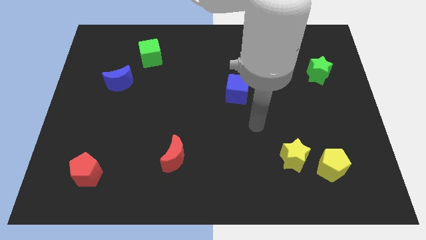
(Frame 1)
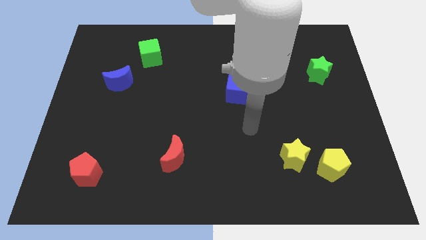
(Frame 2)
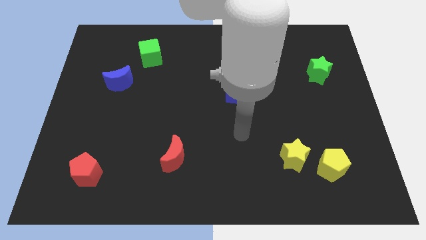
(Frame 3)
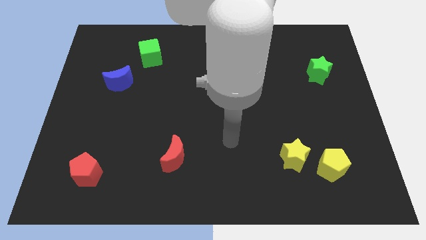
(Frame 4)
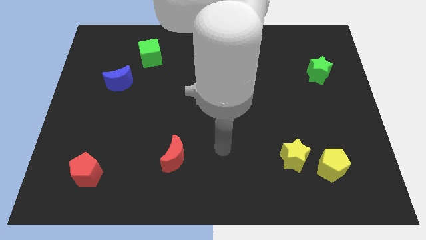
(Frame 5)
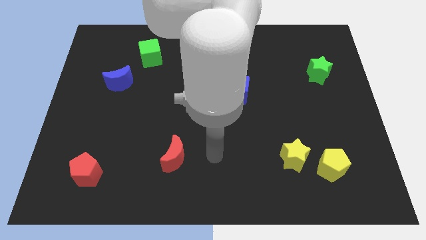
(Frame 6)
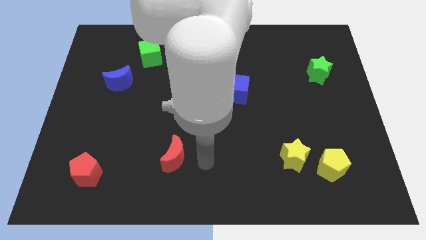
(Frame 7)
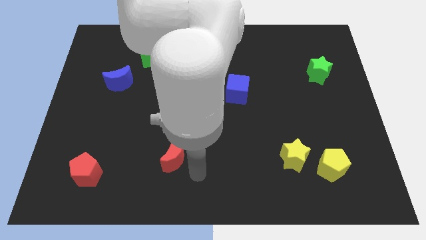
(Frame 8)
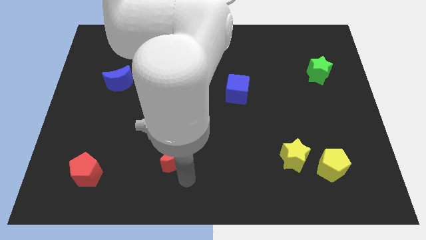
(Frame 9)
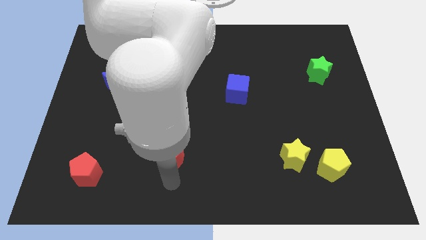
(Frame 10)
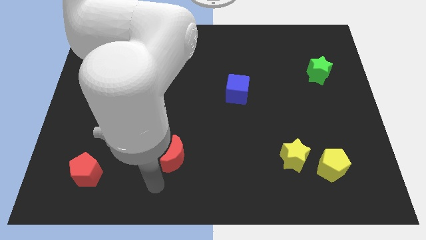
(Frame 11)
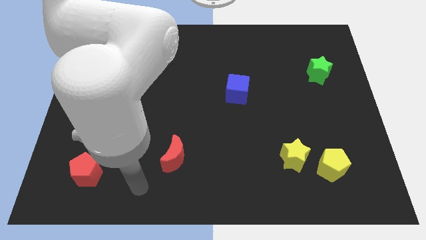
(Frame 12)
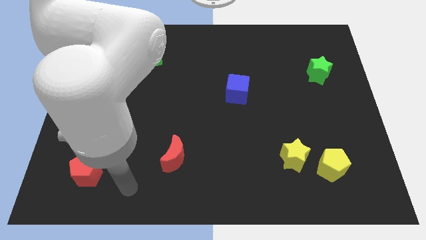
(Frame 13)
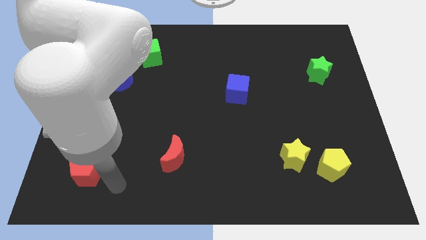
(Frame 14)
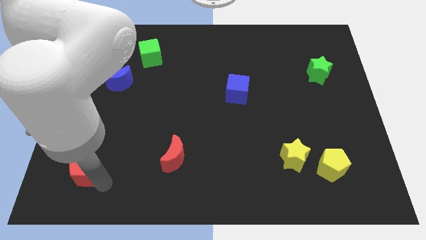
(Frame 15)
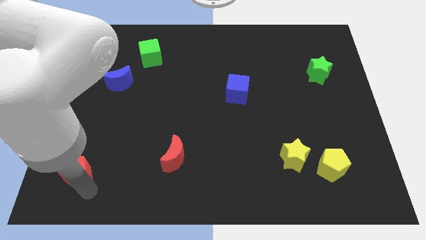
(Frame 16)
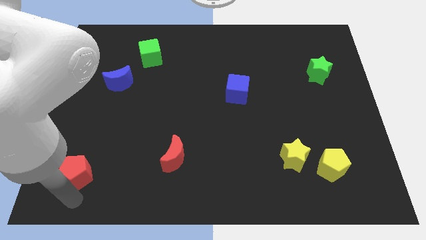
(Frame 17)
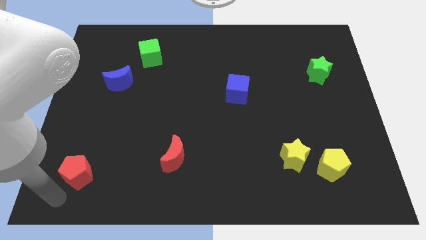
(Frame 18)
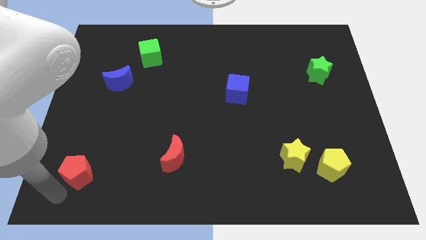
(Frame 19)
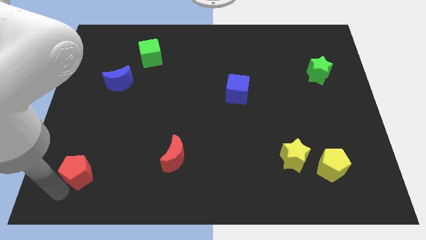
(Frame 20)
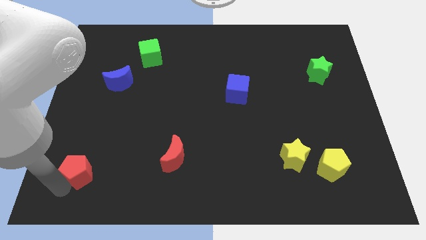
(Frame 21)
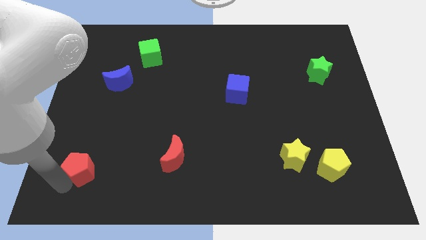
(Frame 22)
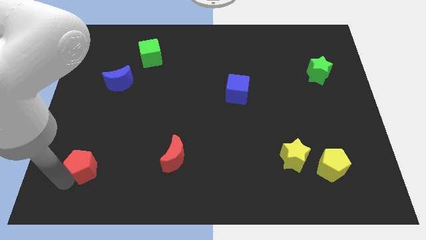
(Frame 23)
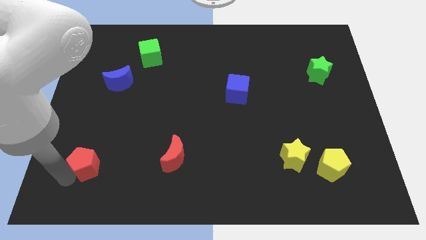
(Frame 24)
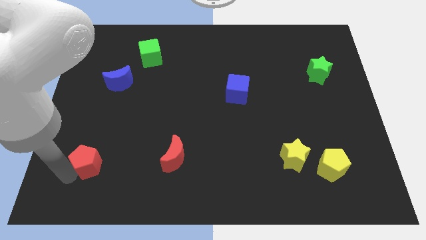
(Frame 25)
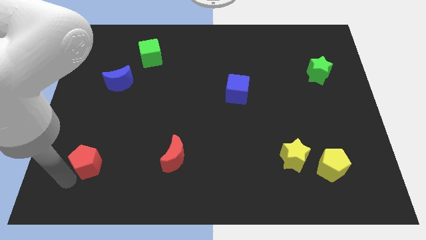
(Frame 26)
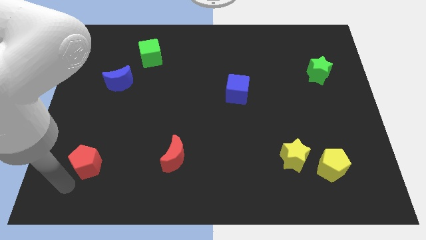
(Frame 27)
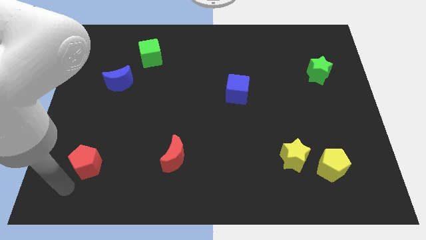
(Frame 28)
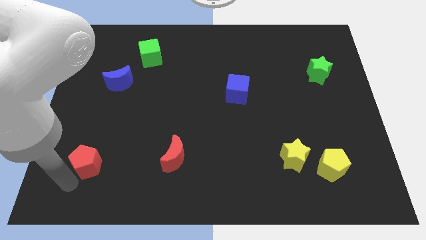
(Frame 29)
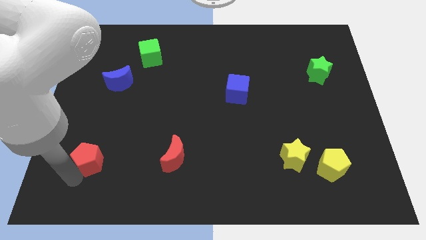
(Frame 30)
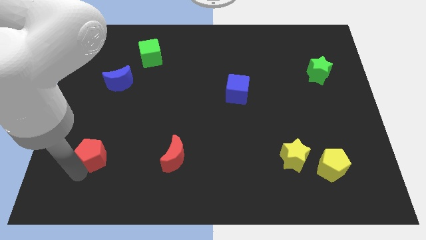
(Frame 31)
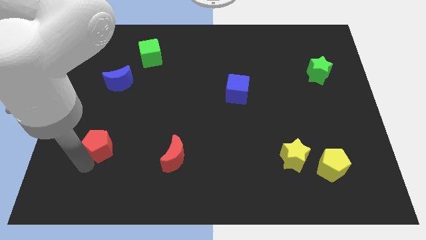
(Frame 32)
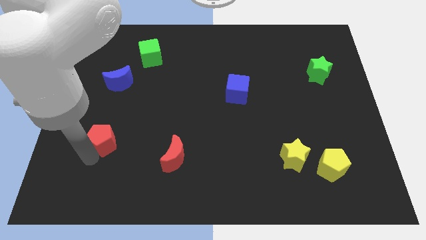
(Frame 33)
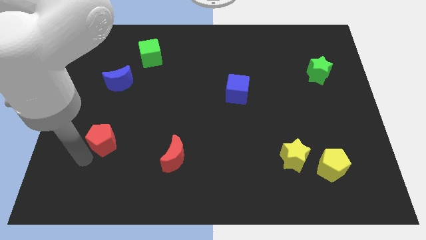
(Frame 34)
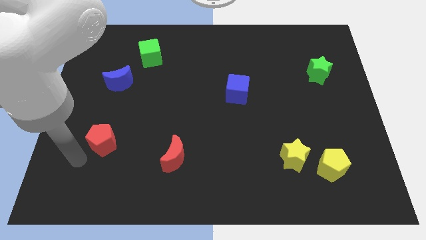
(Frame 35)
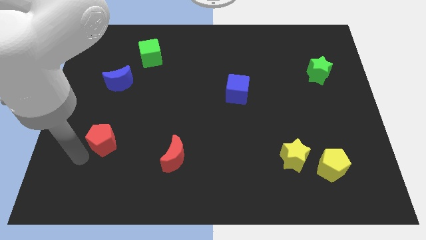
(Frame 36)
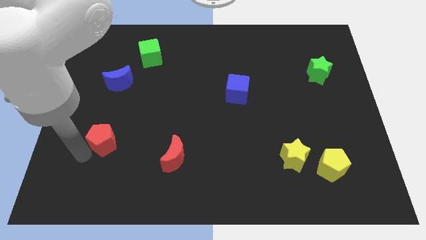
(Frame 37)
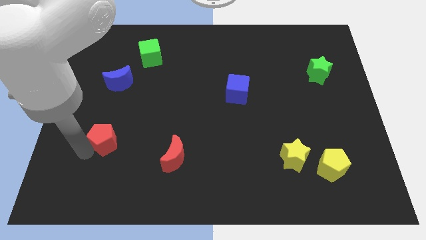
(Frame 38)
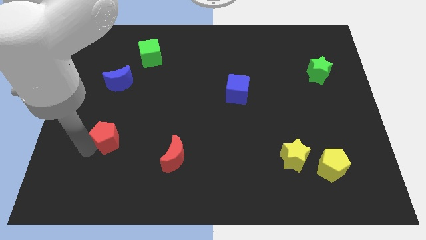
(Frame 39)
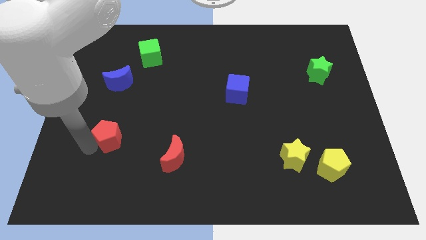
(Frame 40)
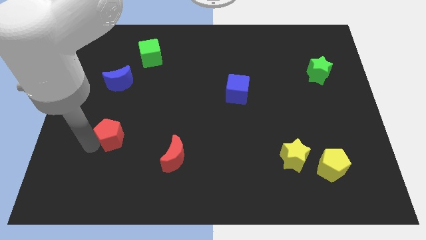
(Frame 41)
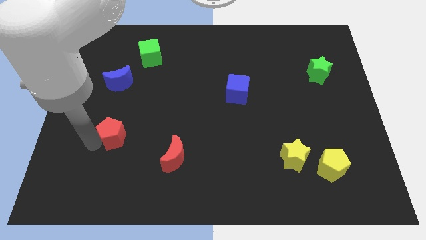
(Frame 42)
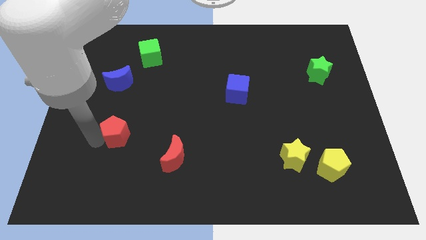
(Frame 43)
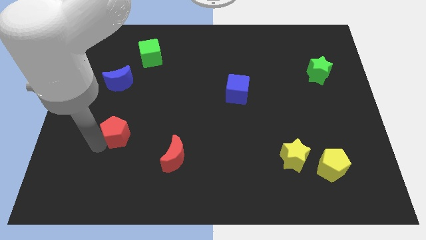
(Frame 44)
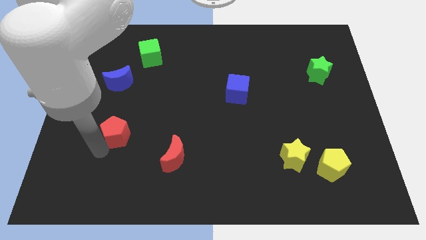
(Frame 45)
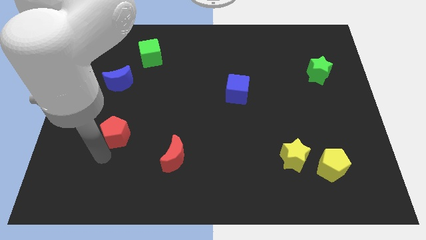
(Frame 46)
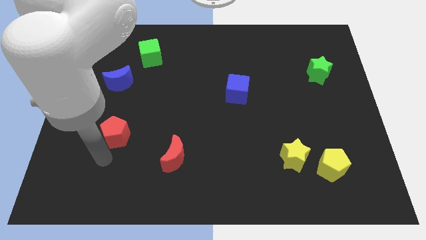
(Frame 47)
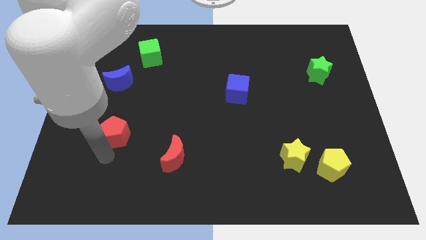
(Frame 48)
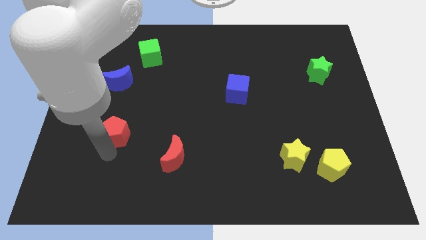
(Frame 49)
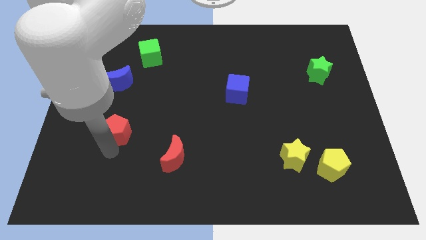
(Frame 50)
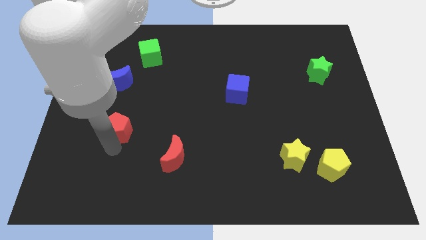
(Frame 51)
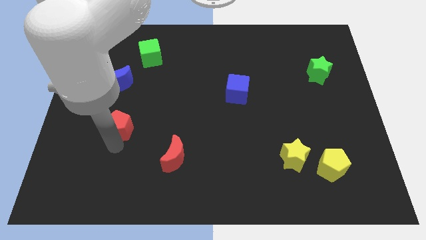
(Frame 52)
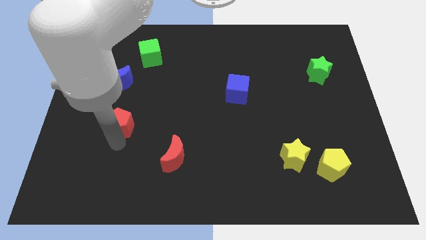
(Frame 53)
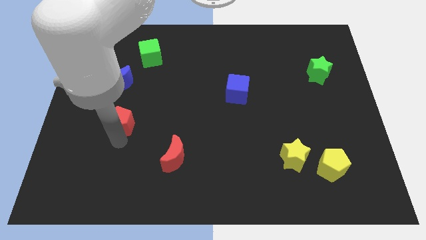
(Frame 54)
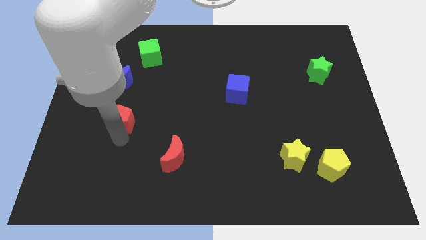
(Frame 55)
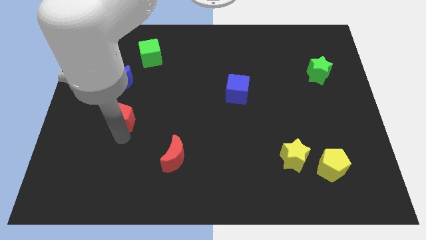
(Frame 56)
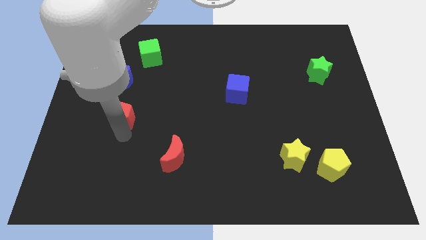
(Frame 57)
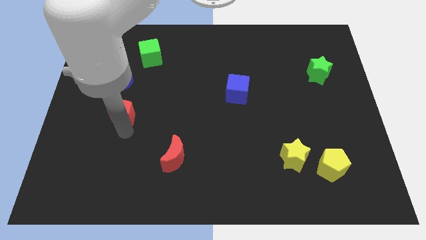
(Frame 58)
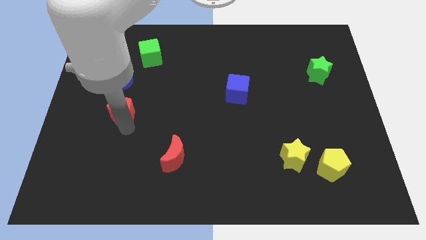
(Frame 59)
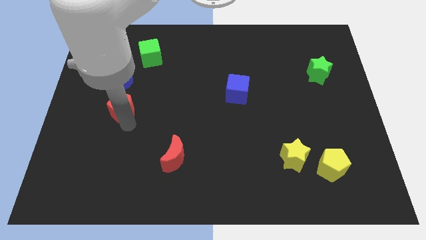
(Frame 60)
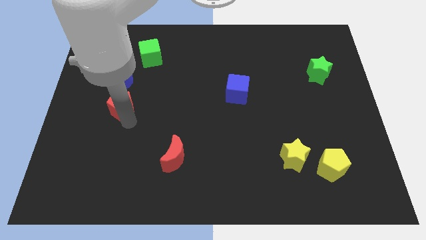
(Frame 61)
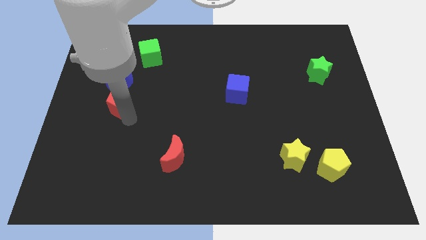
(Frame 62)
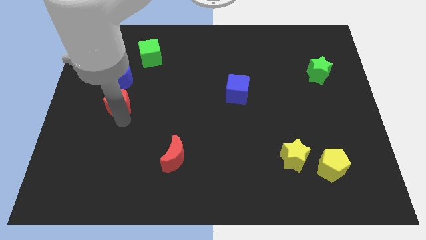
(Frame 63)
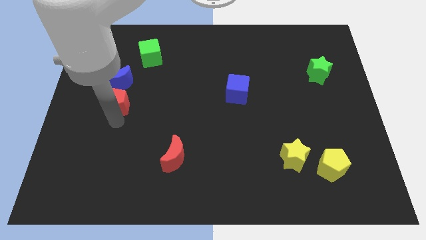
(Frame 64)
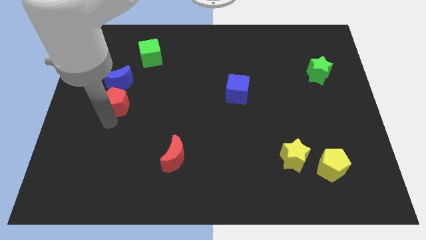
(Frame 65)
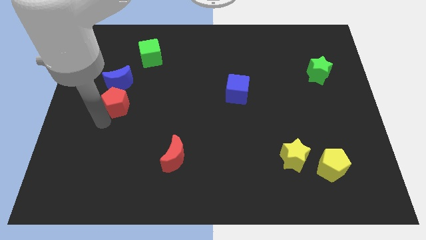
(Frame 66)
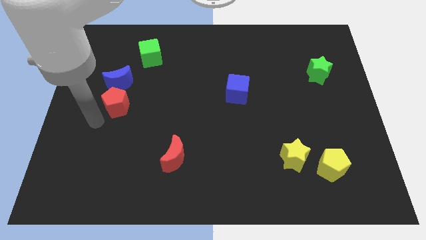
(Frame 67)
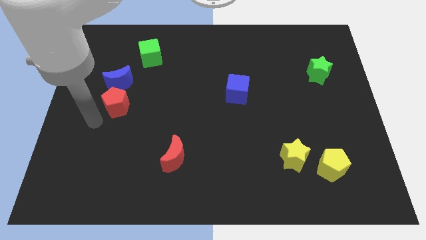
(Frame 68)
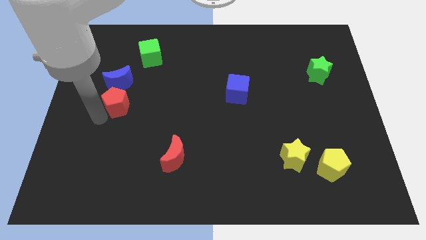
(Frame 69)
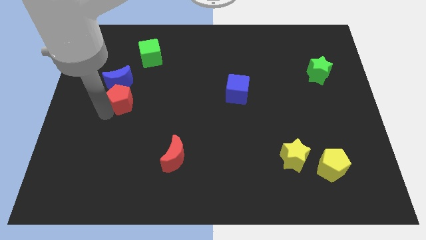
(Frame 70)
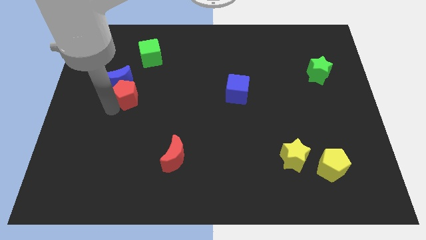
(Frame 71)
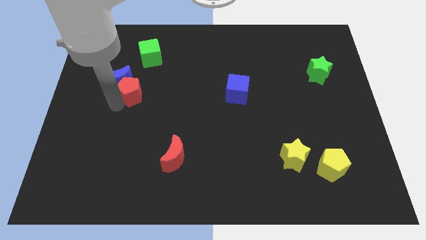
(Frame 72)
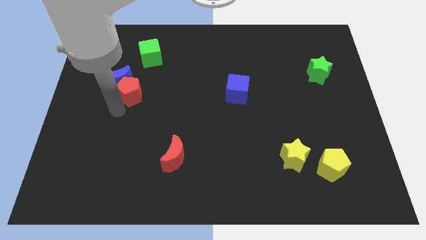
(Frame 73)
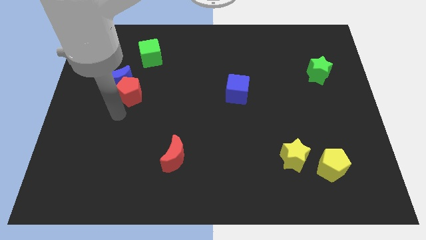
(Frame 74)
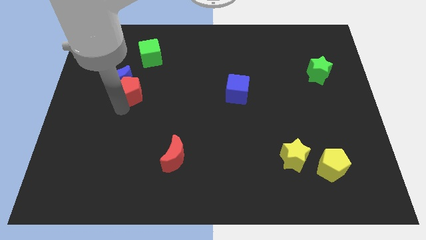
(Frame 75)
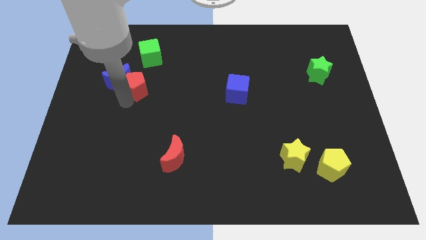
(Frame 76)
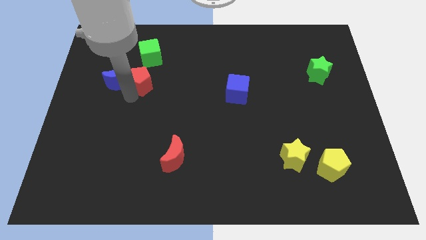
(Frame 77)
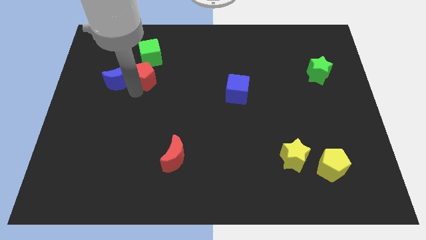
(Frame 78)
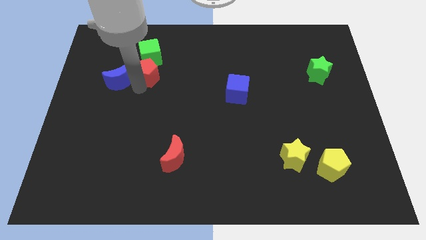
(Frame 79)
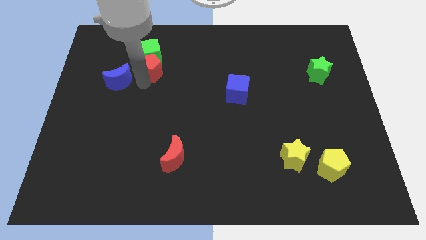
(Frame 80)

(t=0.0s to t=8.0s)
put the red pentagon towards the green cube
